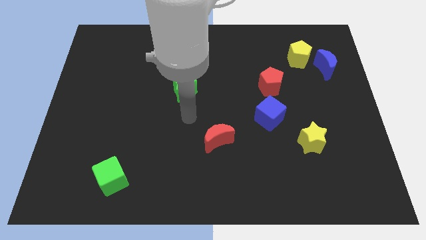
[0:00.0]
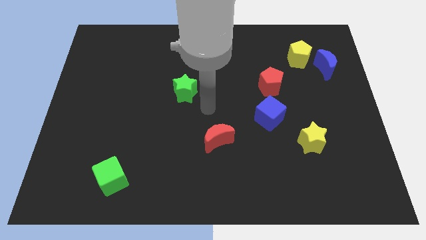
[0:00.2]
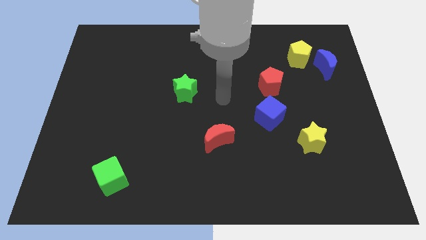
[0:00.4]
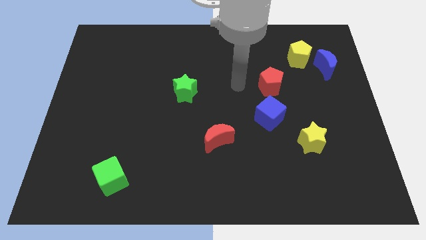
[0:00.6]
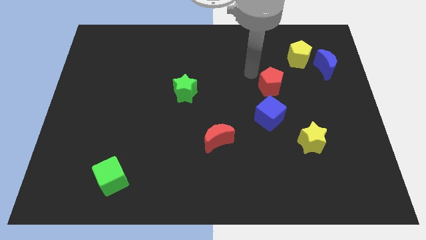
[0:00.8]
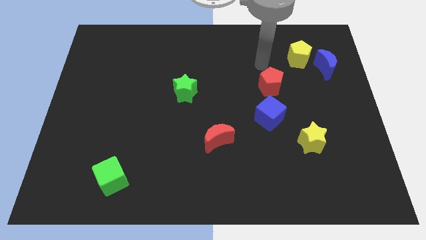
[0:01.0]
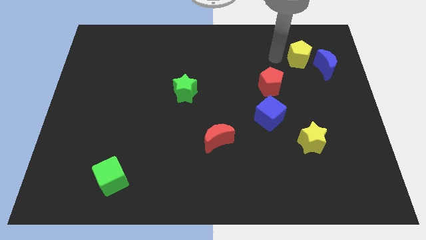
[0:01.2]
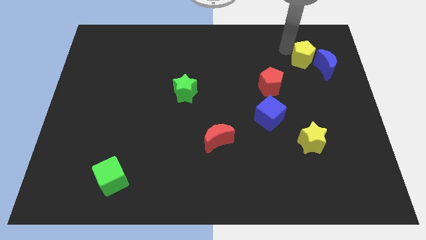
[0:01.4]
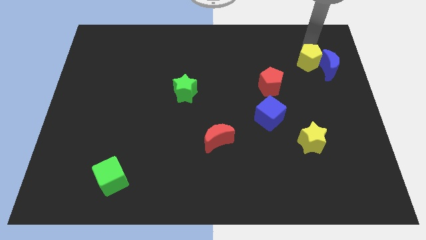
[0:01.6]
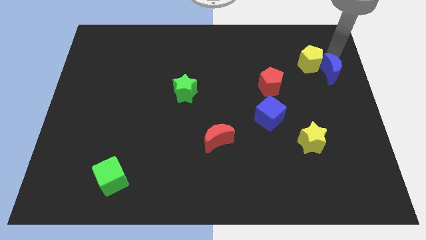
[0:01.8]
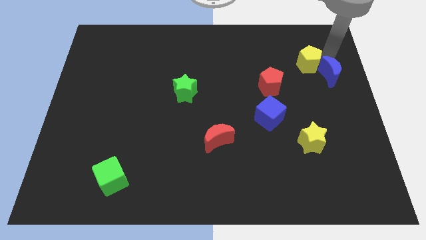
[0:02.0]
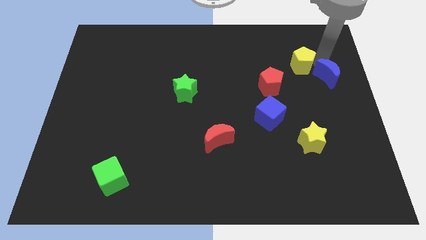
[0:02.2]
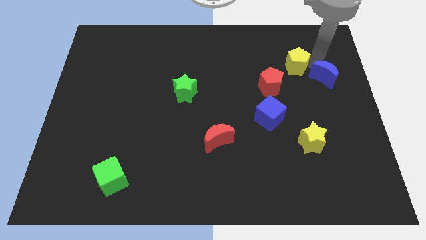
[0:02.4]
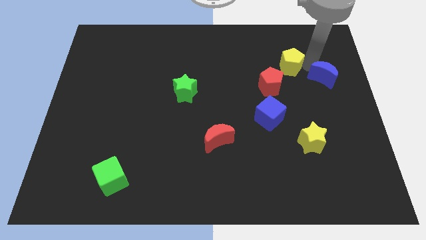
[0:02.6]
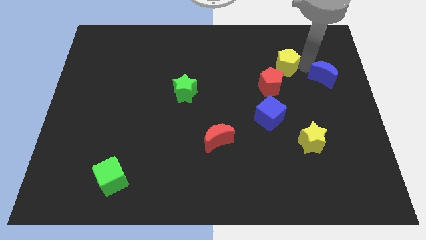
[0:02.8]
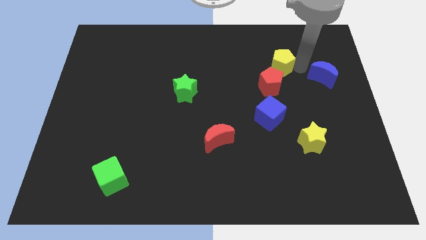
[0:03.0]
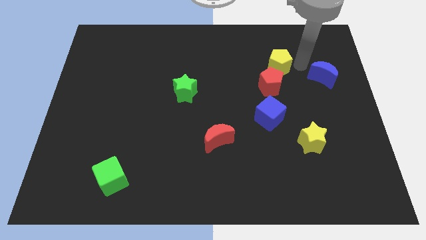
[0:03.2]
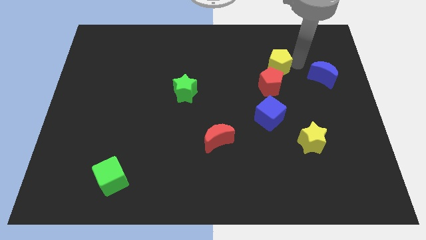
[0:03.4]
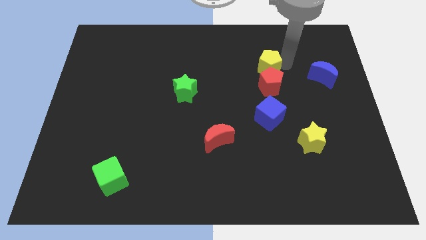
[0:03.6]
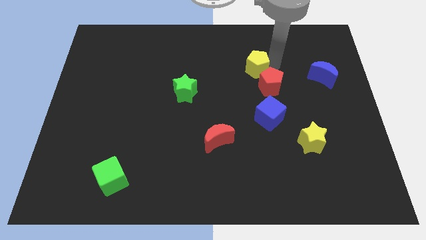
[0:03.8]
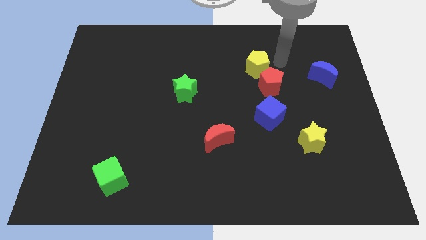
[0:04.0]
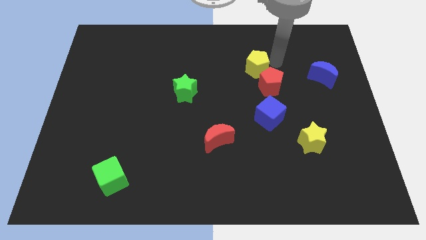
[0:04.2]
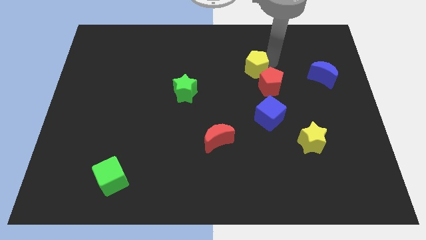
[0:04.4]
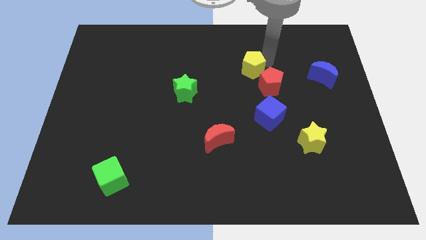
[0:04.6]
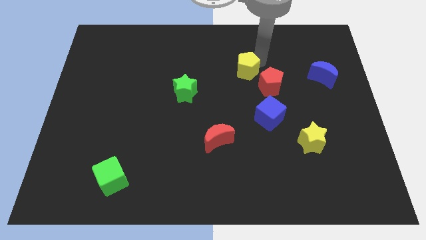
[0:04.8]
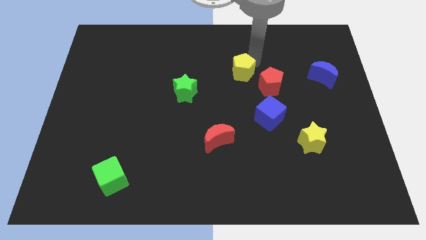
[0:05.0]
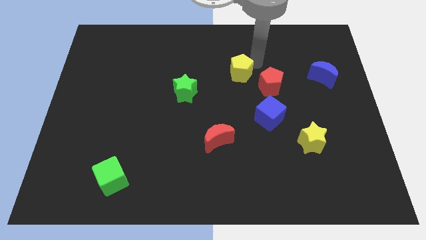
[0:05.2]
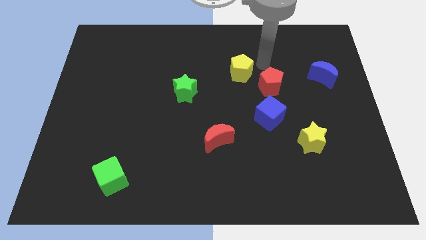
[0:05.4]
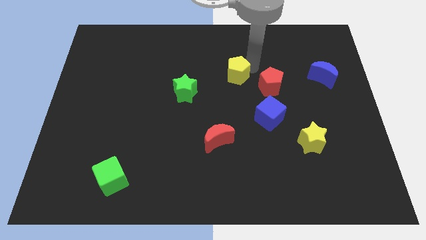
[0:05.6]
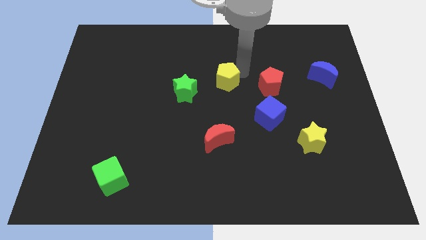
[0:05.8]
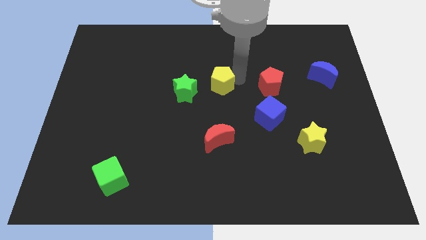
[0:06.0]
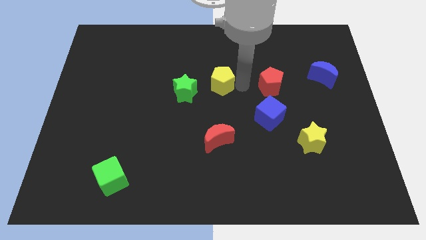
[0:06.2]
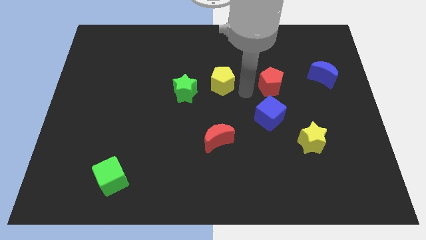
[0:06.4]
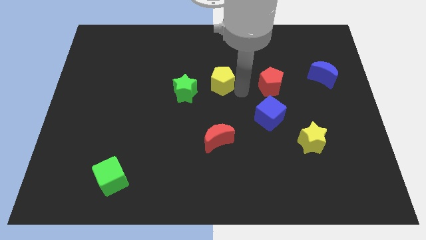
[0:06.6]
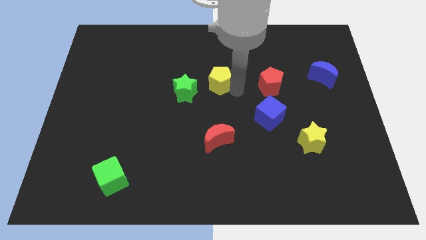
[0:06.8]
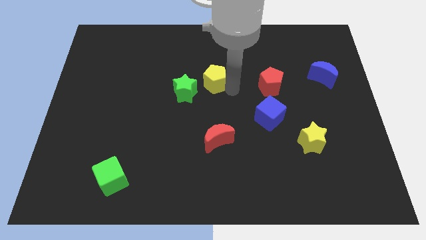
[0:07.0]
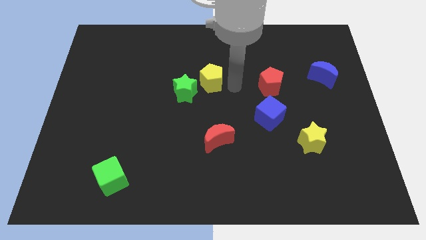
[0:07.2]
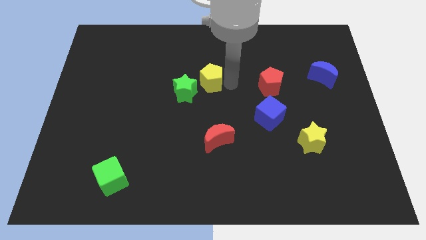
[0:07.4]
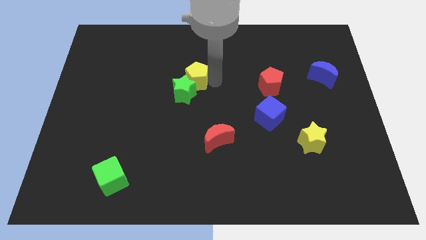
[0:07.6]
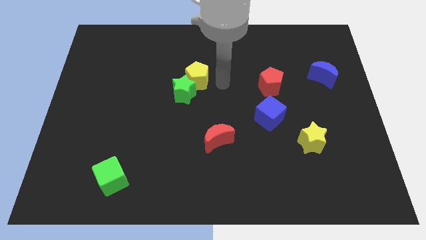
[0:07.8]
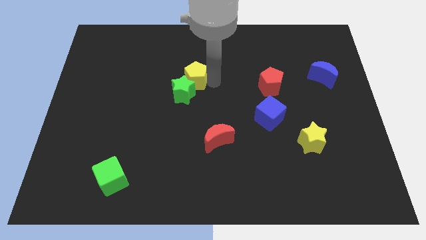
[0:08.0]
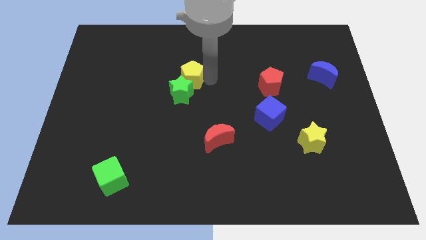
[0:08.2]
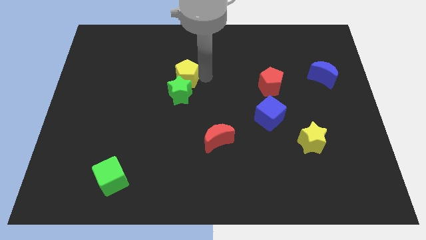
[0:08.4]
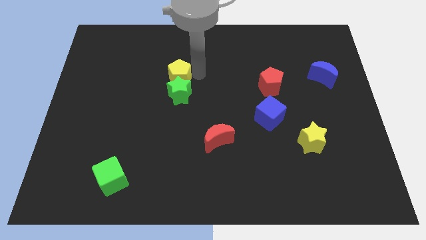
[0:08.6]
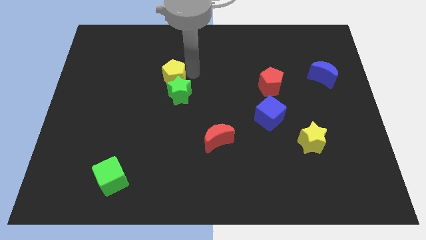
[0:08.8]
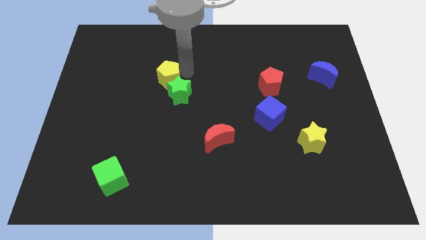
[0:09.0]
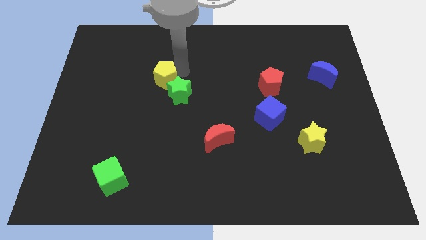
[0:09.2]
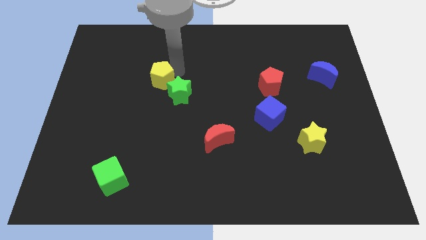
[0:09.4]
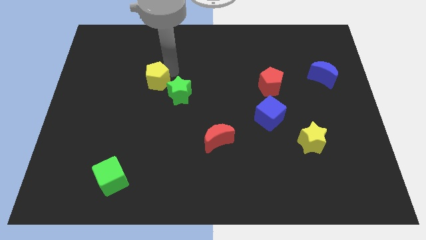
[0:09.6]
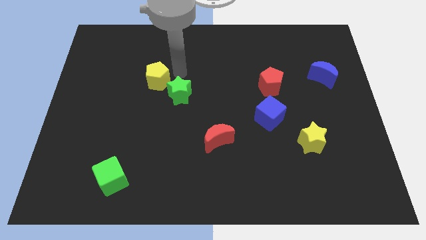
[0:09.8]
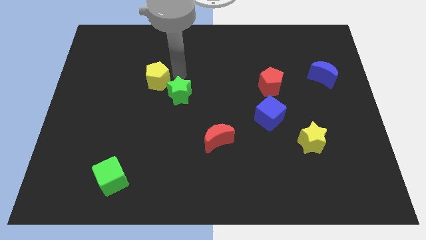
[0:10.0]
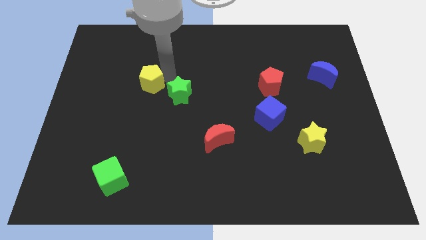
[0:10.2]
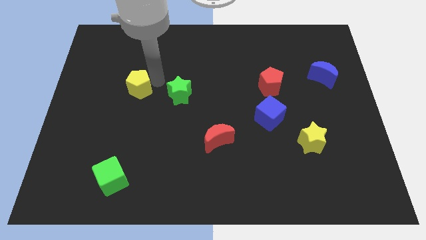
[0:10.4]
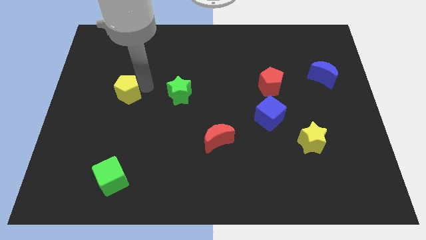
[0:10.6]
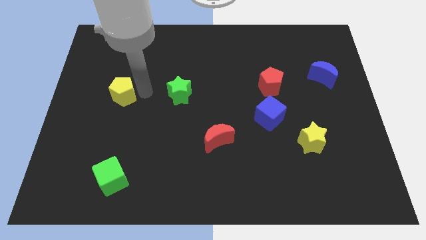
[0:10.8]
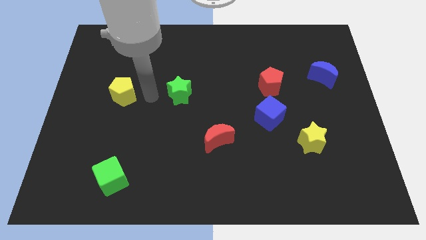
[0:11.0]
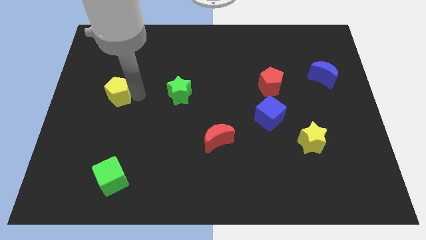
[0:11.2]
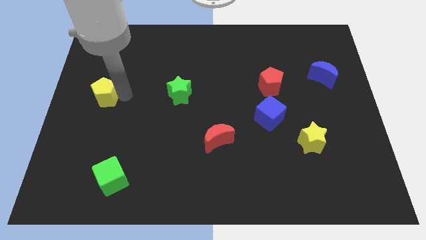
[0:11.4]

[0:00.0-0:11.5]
slide the yellow pentagon to the left side of the board

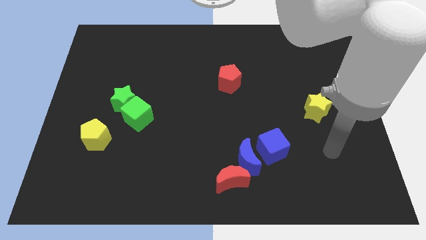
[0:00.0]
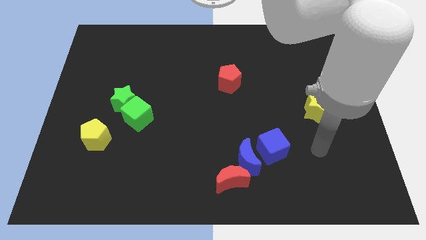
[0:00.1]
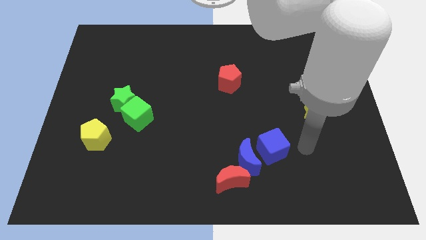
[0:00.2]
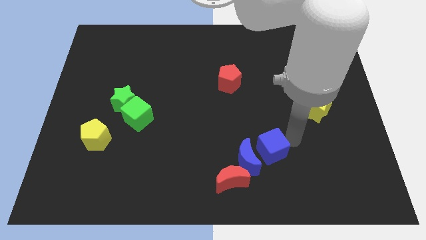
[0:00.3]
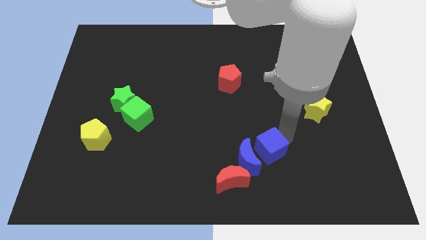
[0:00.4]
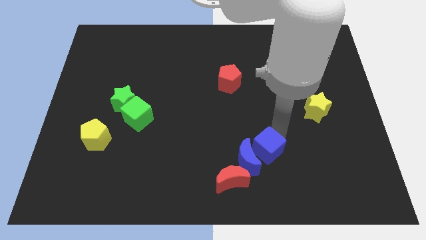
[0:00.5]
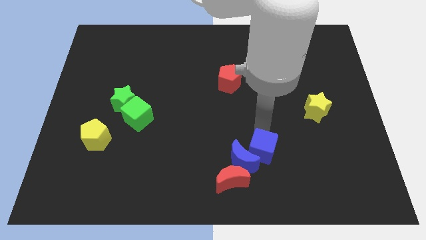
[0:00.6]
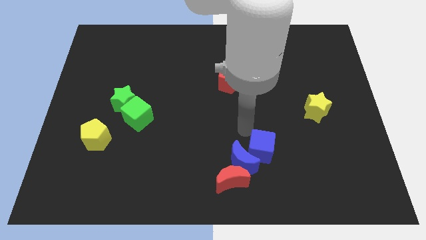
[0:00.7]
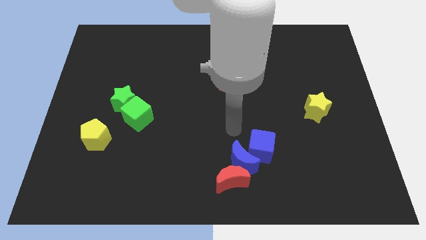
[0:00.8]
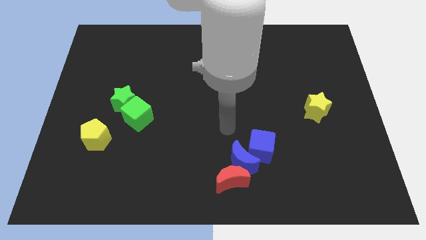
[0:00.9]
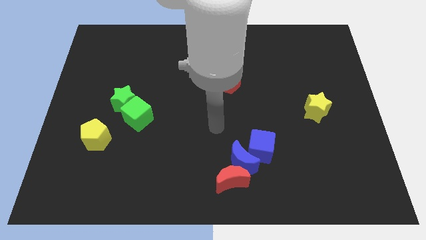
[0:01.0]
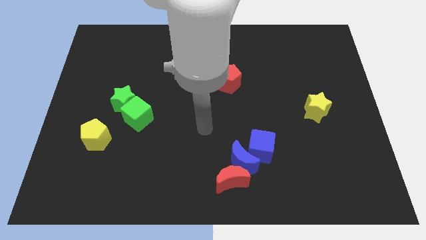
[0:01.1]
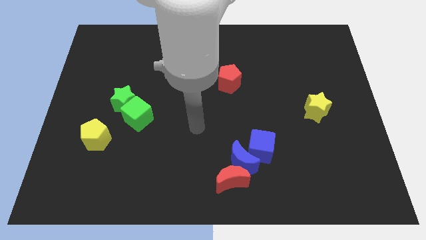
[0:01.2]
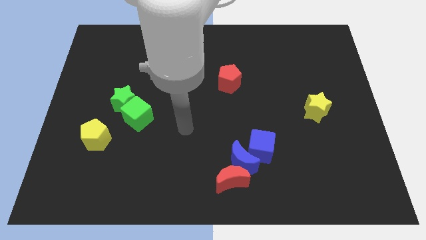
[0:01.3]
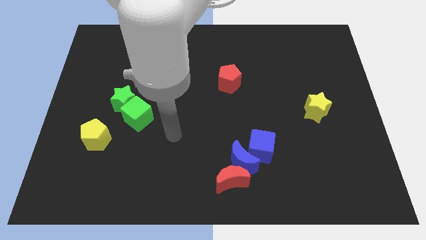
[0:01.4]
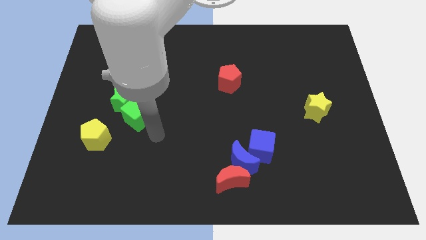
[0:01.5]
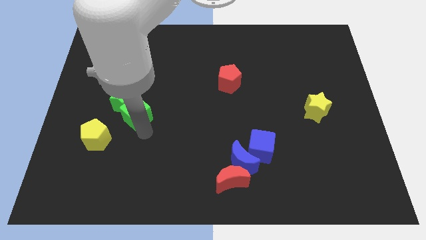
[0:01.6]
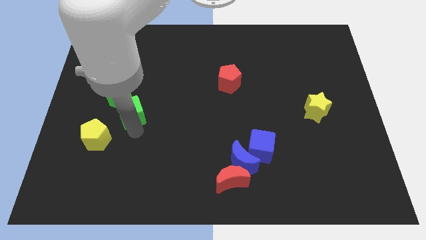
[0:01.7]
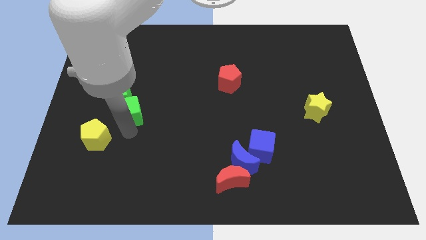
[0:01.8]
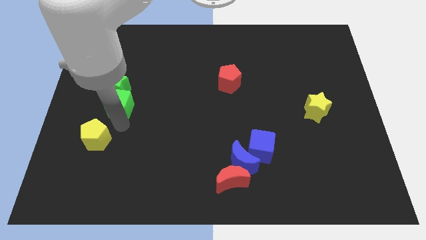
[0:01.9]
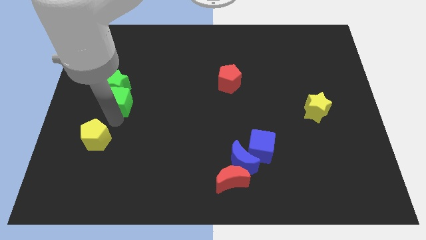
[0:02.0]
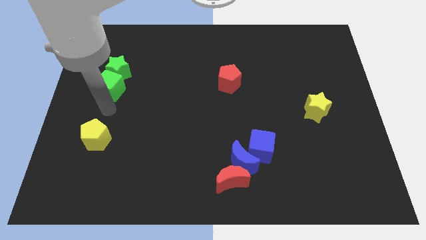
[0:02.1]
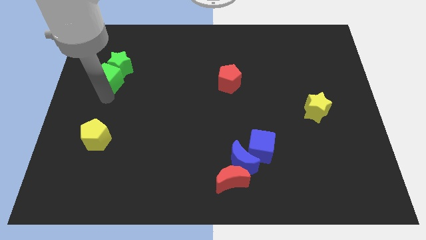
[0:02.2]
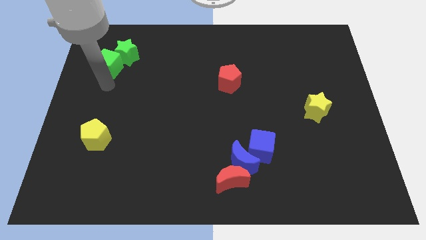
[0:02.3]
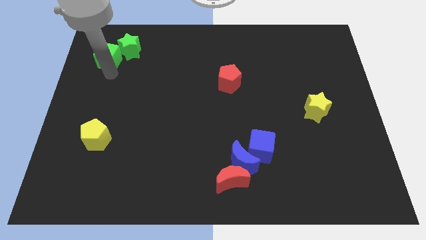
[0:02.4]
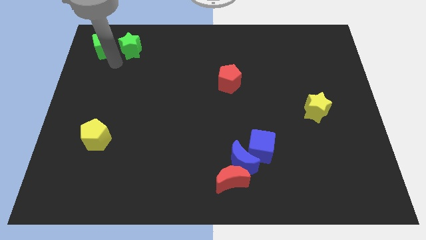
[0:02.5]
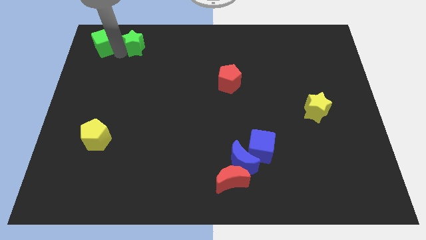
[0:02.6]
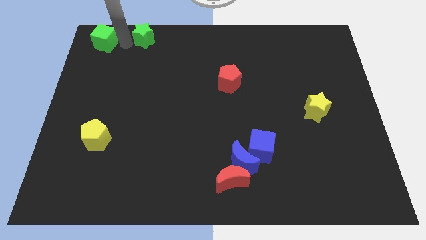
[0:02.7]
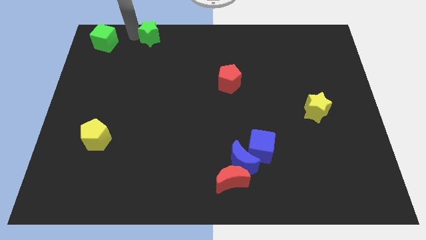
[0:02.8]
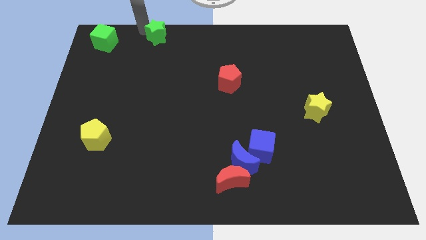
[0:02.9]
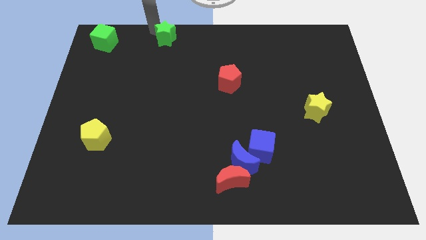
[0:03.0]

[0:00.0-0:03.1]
move the green star to the top
